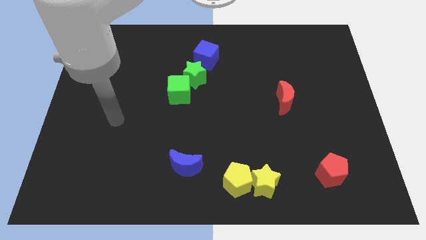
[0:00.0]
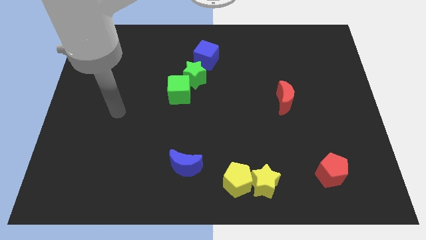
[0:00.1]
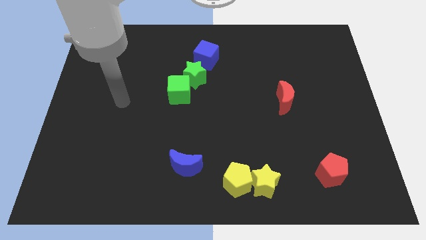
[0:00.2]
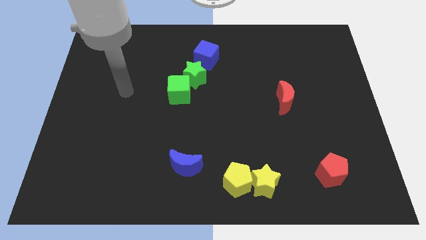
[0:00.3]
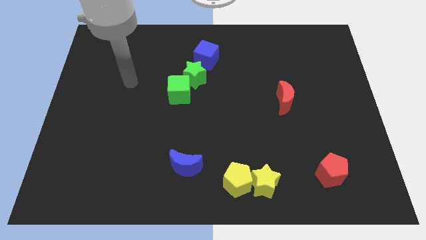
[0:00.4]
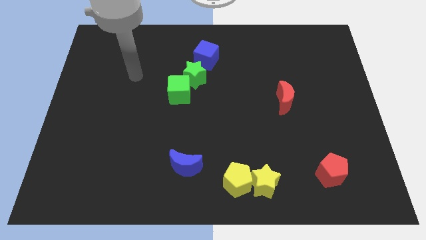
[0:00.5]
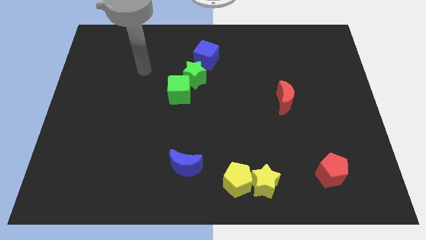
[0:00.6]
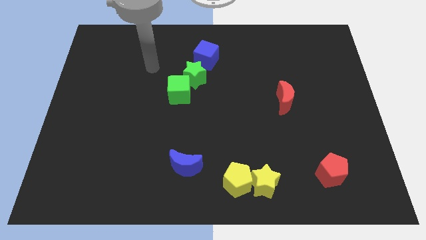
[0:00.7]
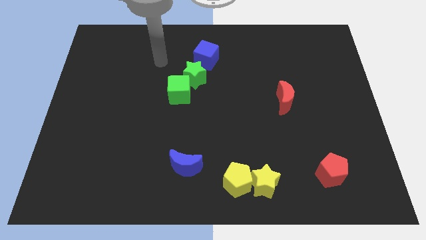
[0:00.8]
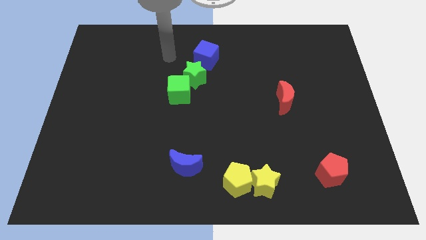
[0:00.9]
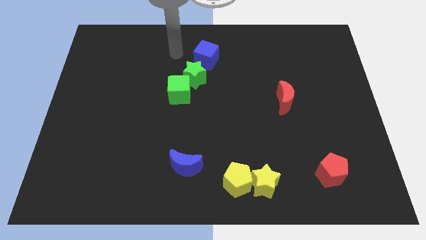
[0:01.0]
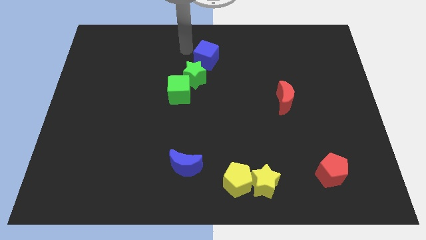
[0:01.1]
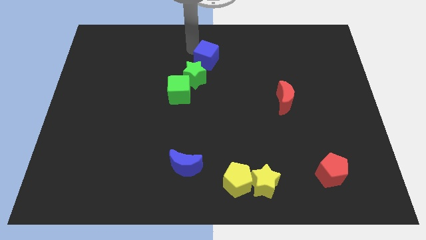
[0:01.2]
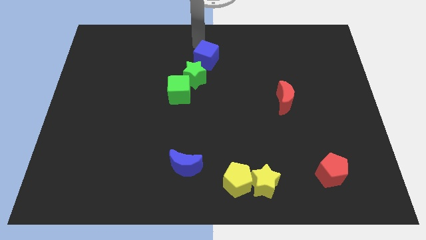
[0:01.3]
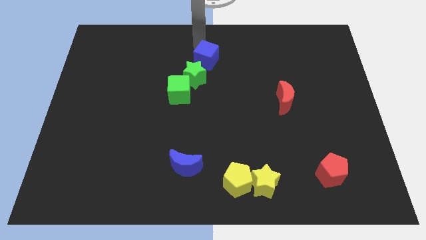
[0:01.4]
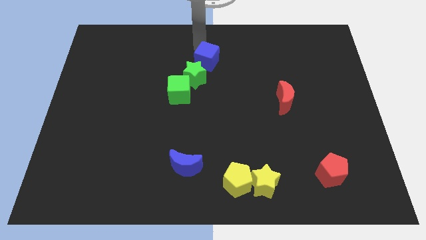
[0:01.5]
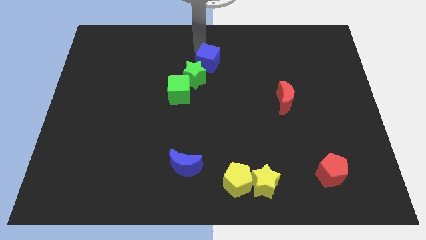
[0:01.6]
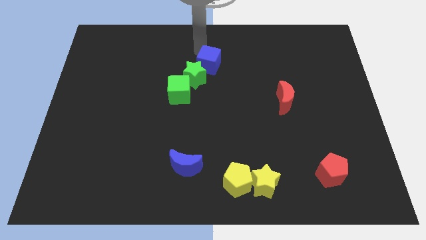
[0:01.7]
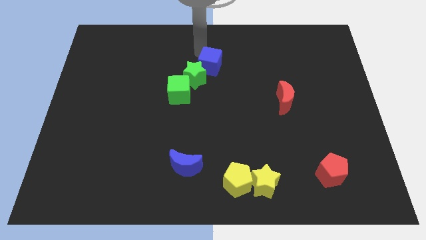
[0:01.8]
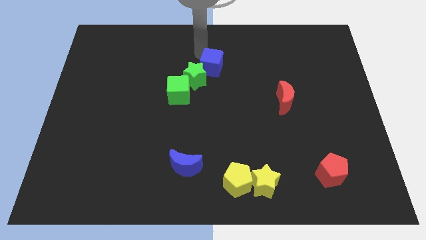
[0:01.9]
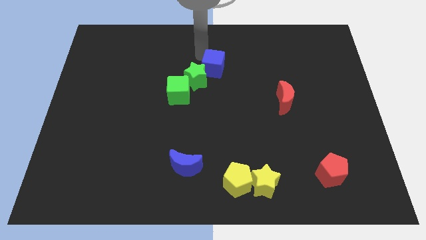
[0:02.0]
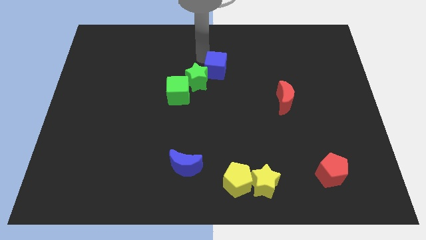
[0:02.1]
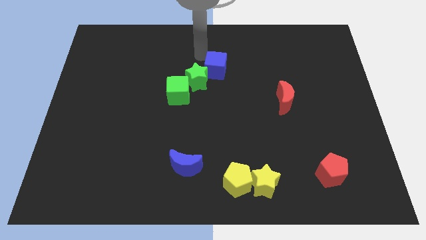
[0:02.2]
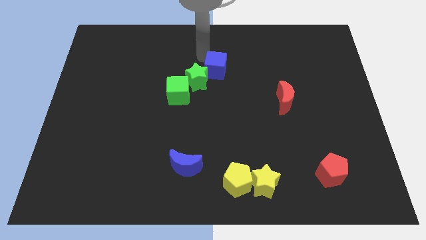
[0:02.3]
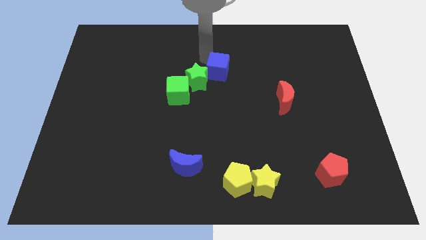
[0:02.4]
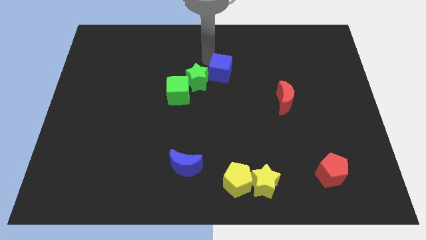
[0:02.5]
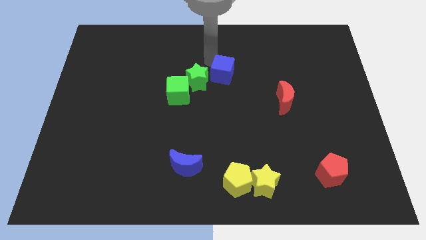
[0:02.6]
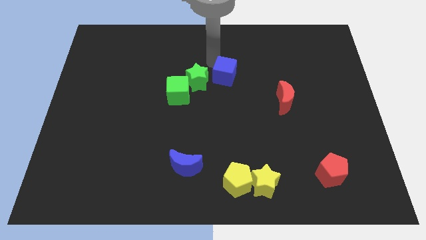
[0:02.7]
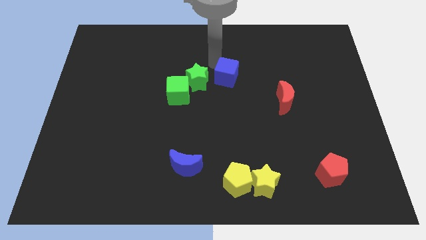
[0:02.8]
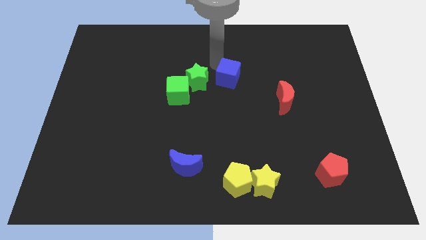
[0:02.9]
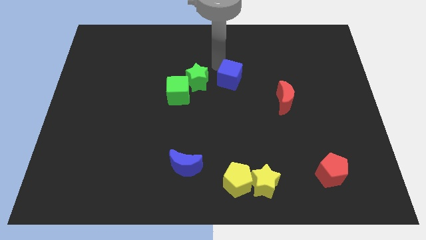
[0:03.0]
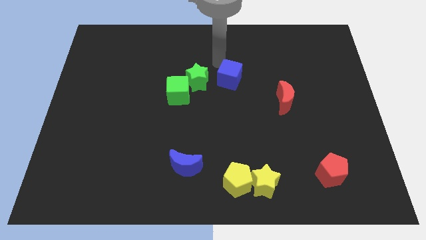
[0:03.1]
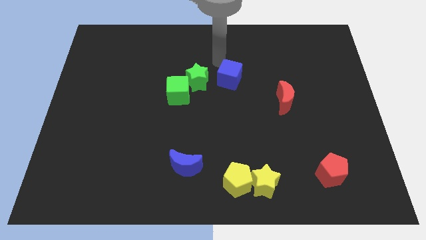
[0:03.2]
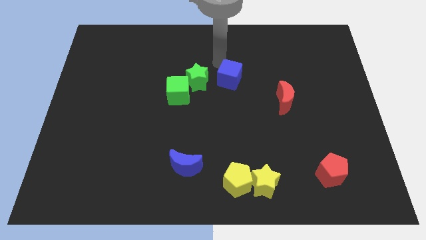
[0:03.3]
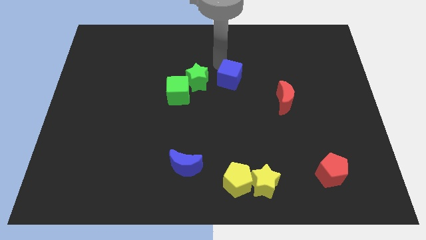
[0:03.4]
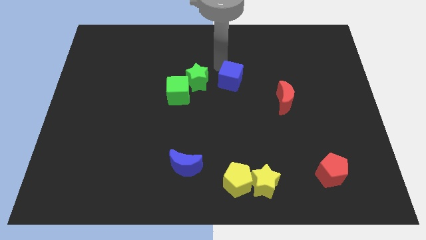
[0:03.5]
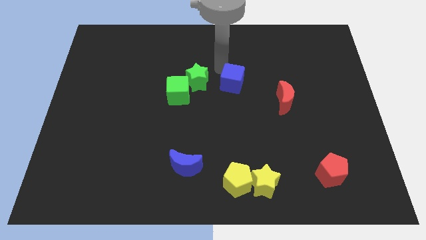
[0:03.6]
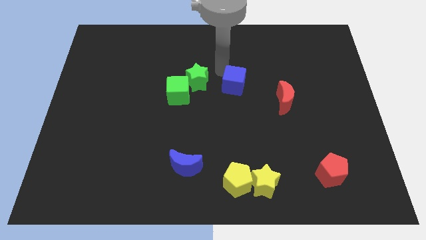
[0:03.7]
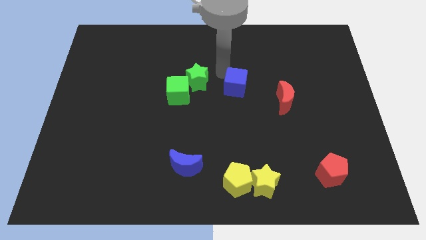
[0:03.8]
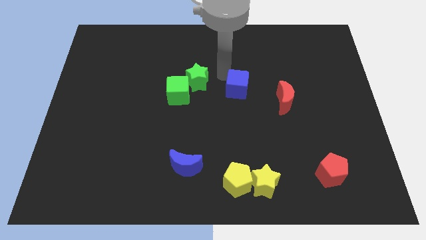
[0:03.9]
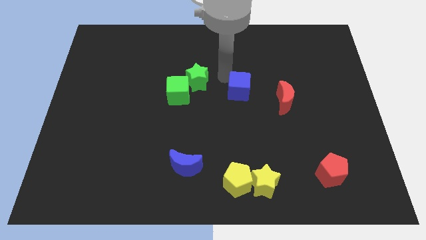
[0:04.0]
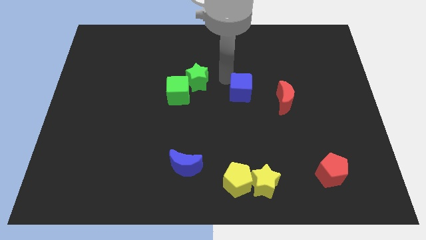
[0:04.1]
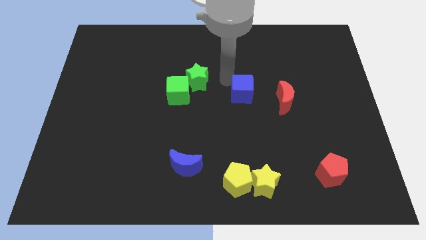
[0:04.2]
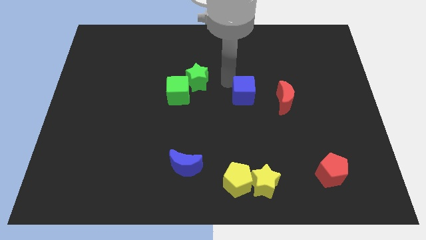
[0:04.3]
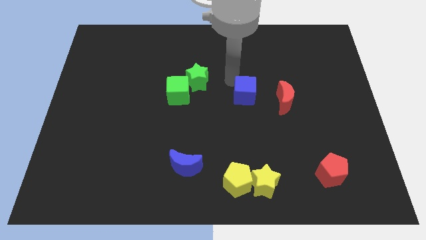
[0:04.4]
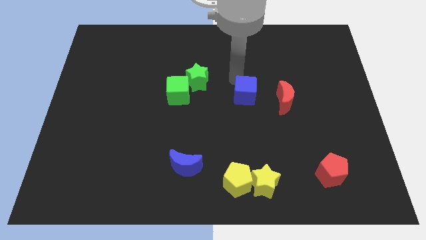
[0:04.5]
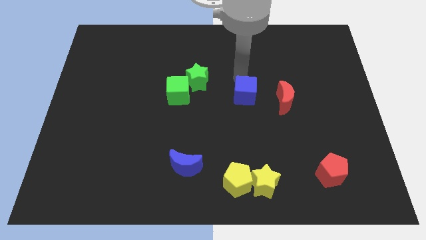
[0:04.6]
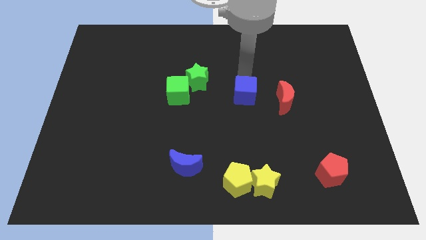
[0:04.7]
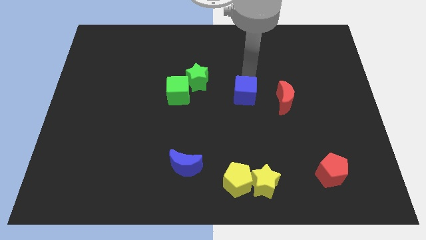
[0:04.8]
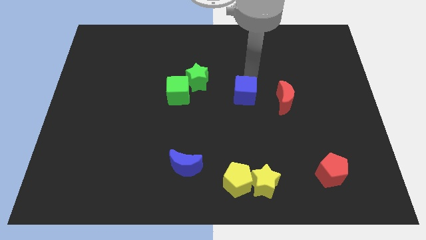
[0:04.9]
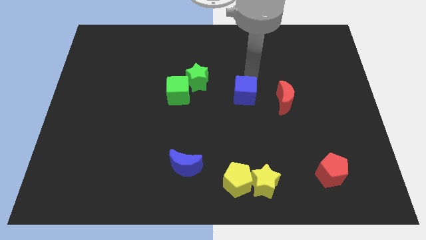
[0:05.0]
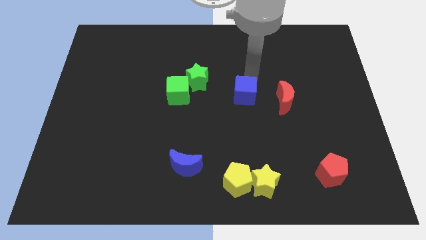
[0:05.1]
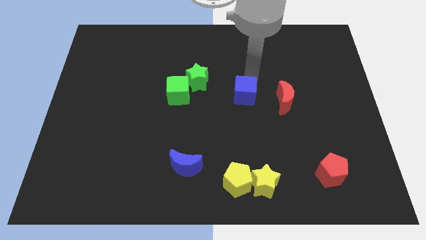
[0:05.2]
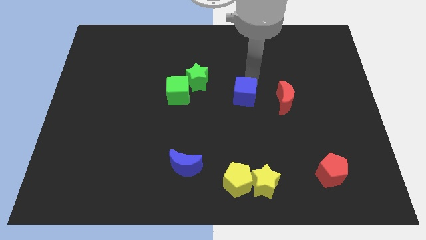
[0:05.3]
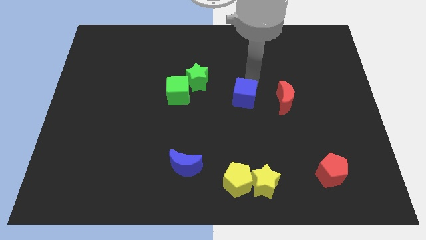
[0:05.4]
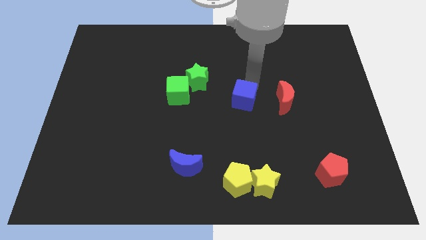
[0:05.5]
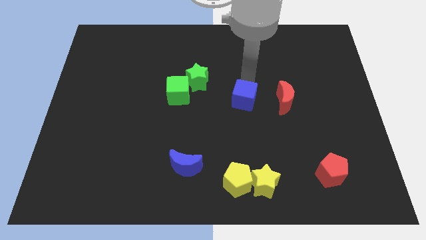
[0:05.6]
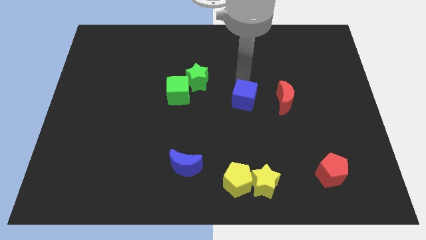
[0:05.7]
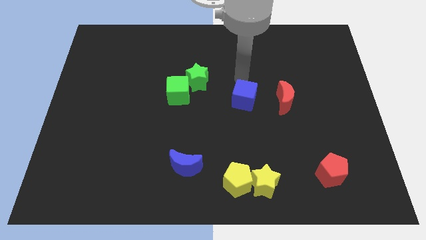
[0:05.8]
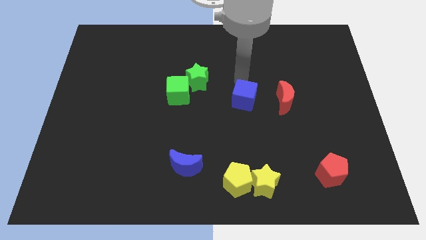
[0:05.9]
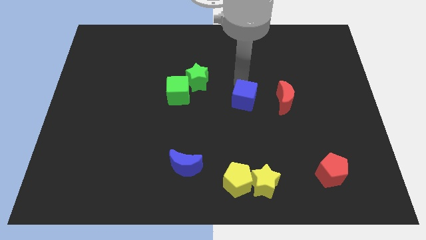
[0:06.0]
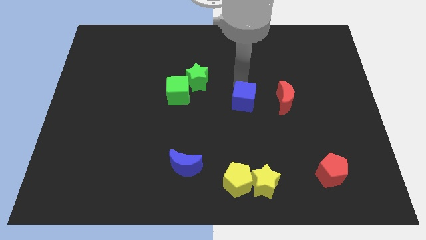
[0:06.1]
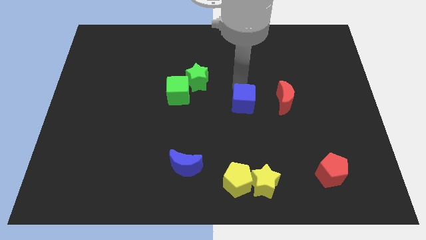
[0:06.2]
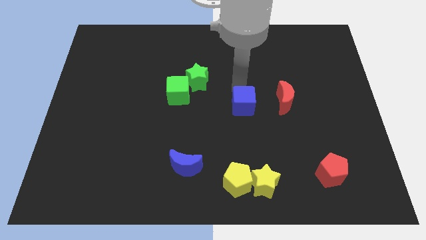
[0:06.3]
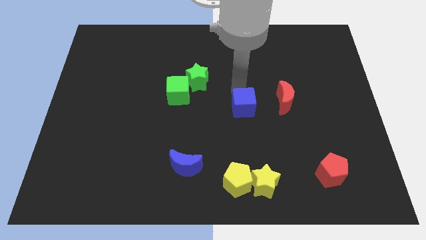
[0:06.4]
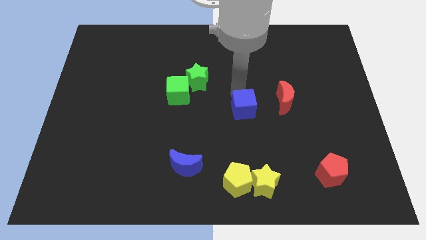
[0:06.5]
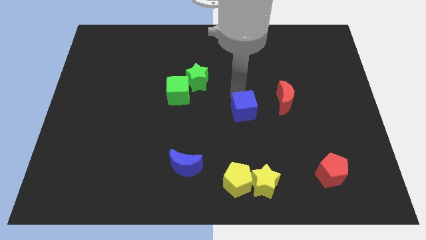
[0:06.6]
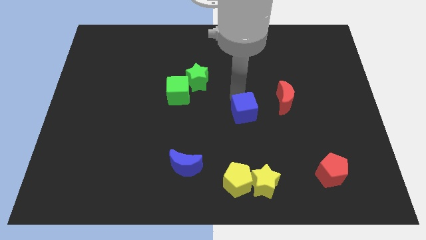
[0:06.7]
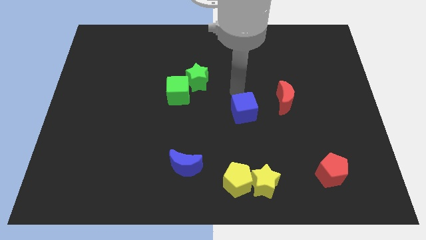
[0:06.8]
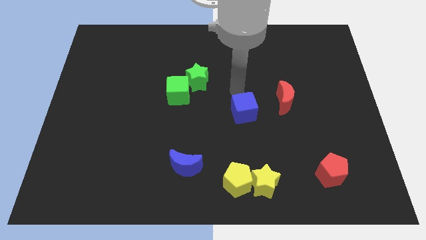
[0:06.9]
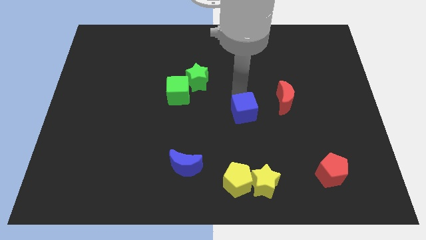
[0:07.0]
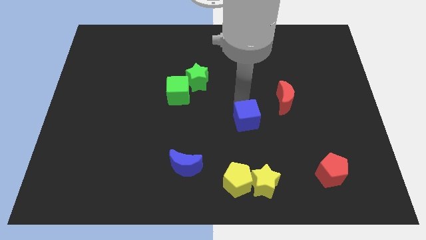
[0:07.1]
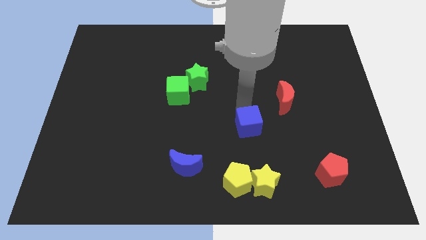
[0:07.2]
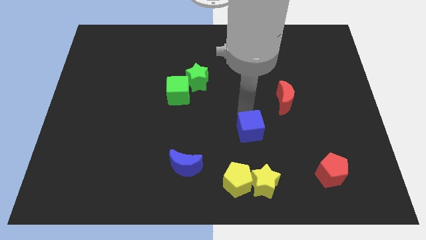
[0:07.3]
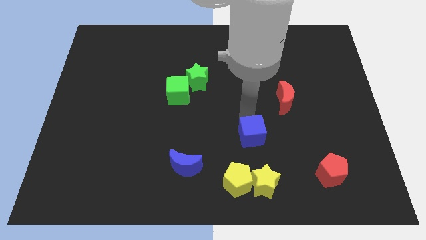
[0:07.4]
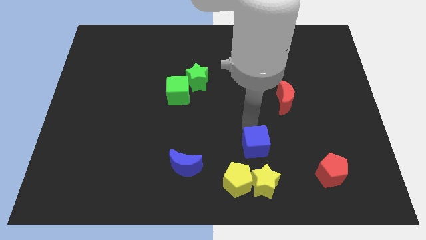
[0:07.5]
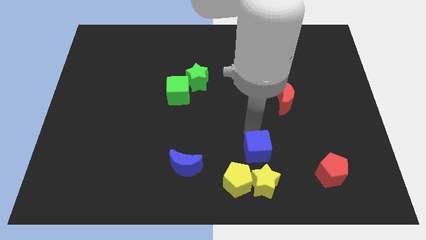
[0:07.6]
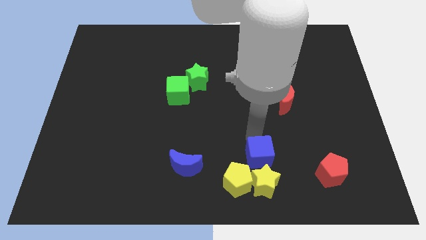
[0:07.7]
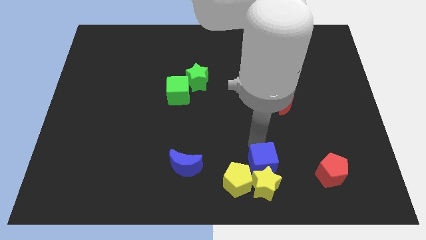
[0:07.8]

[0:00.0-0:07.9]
put the blue cube next to the yellow star

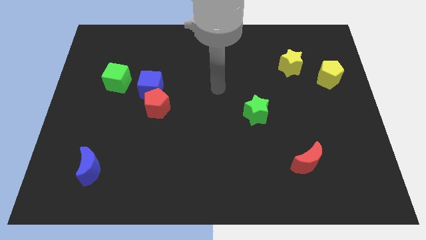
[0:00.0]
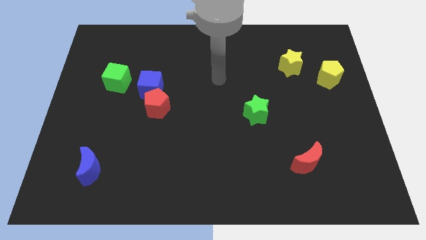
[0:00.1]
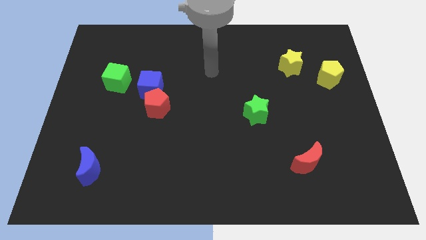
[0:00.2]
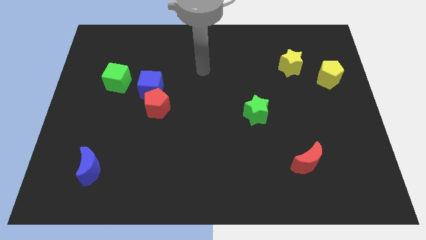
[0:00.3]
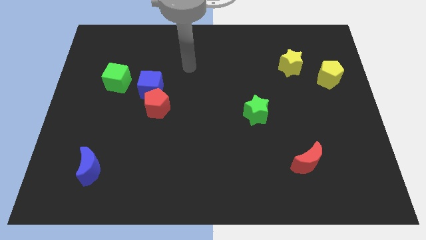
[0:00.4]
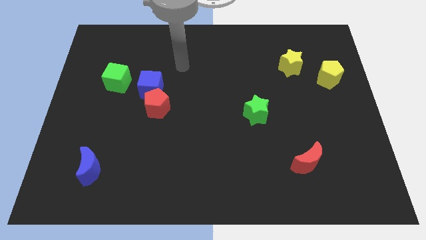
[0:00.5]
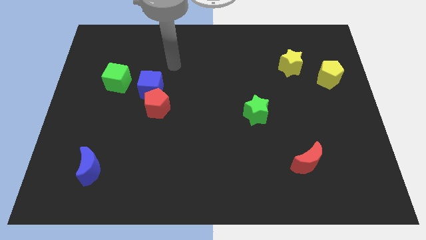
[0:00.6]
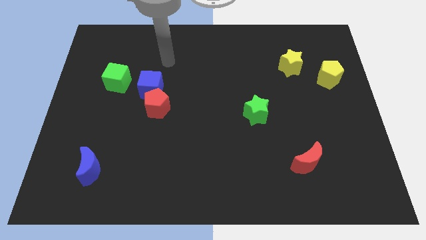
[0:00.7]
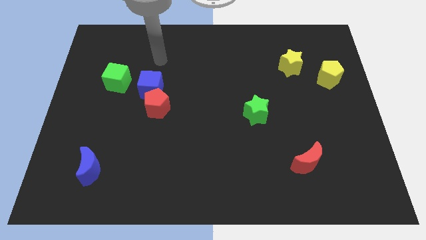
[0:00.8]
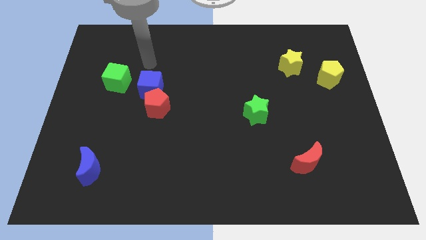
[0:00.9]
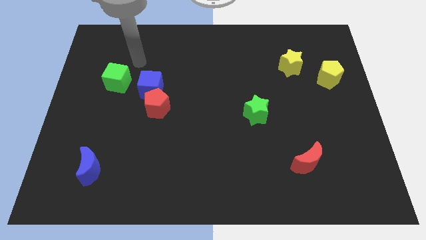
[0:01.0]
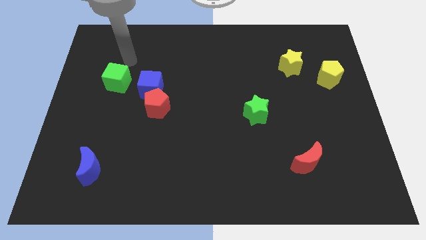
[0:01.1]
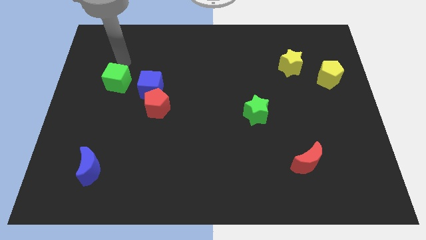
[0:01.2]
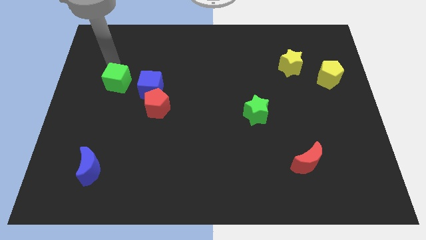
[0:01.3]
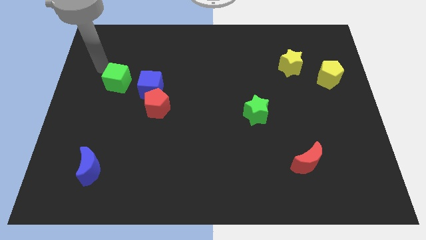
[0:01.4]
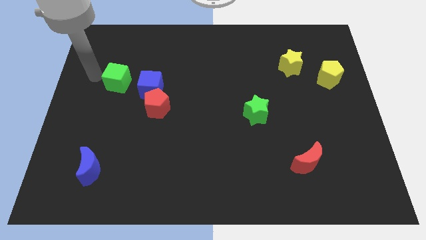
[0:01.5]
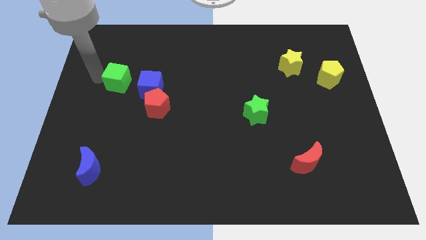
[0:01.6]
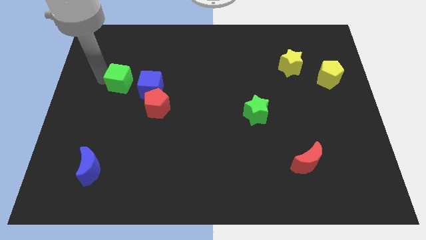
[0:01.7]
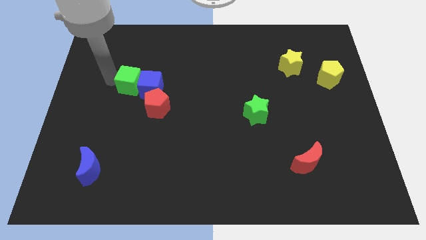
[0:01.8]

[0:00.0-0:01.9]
push the green cube towards the blue cube
